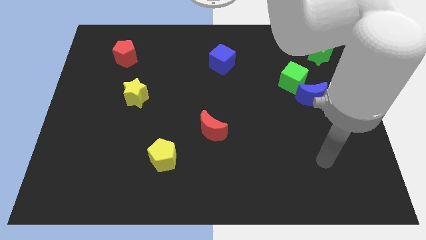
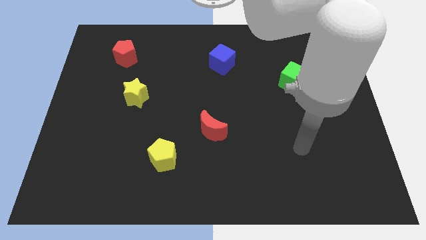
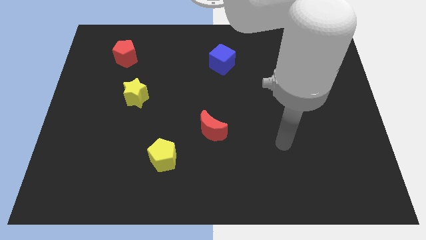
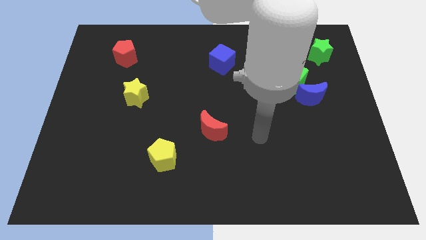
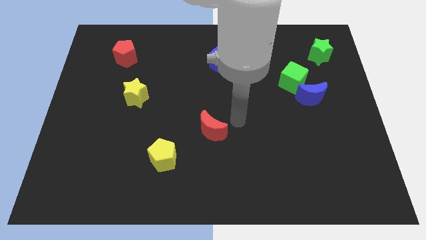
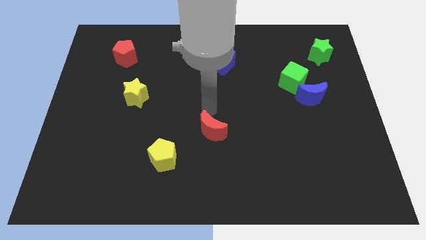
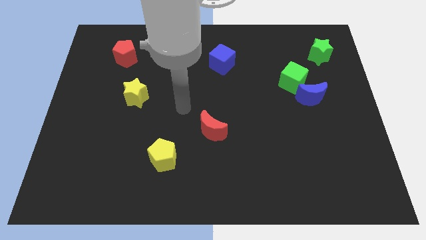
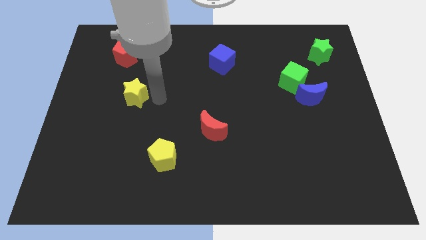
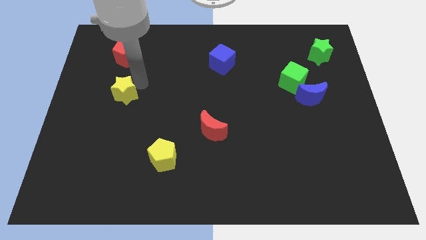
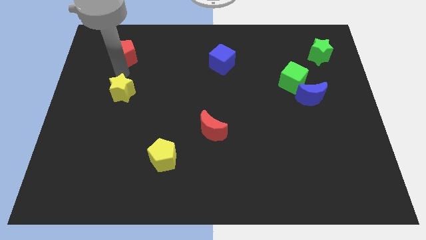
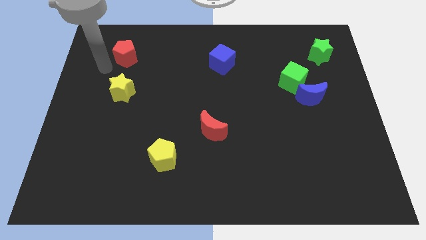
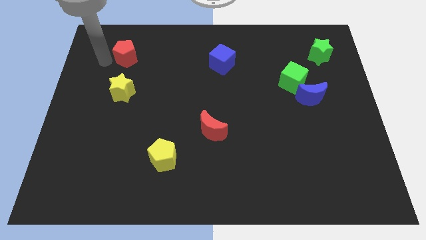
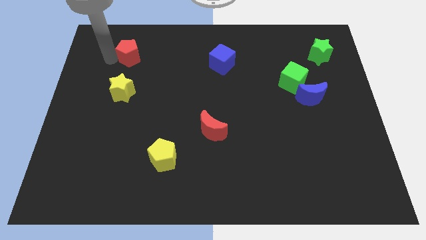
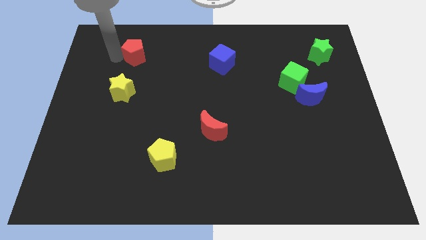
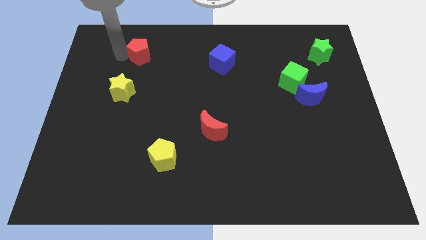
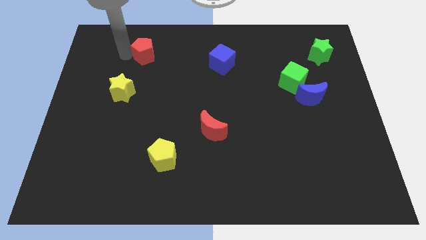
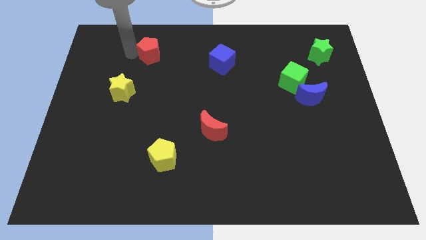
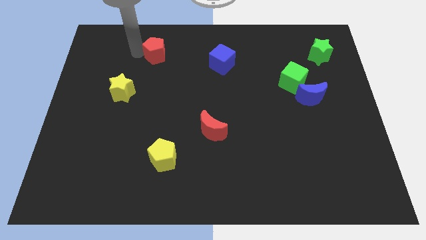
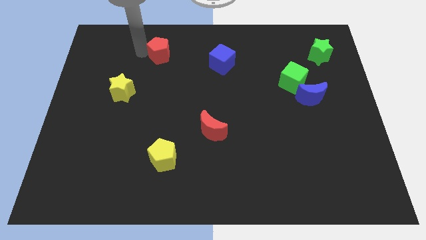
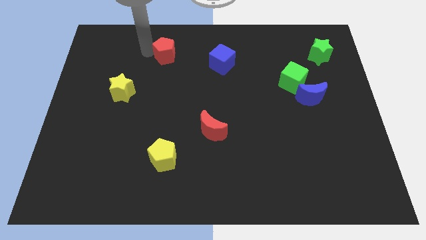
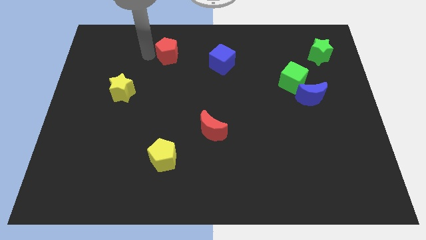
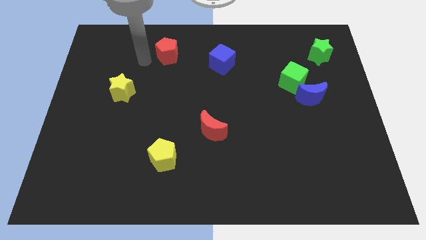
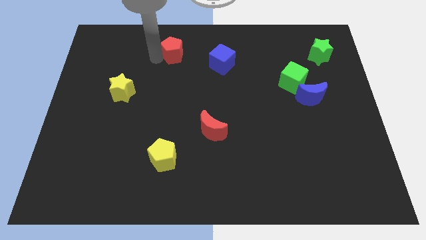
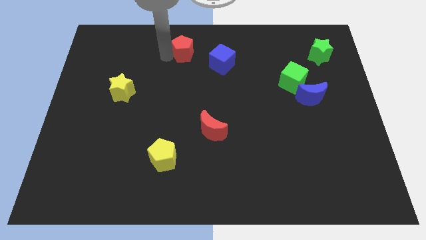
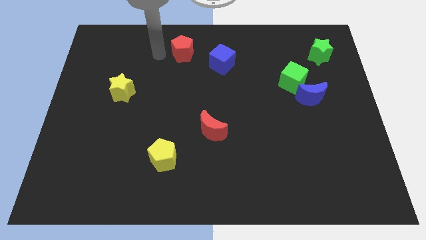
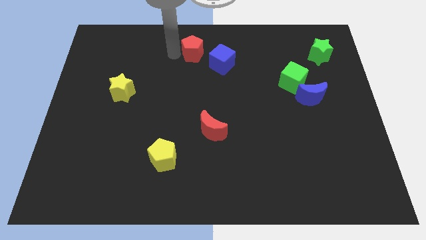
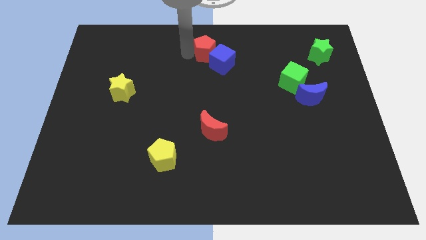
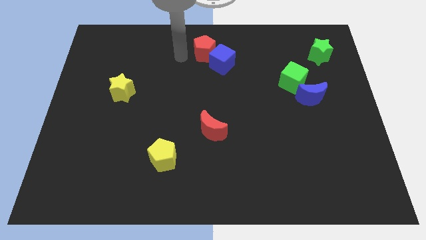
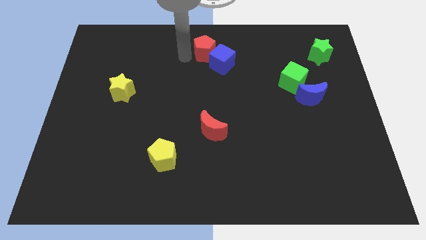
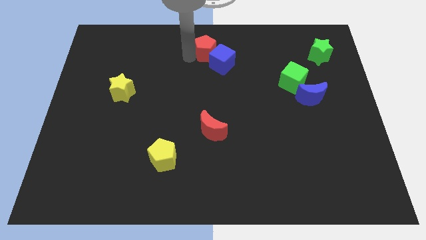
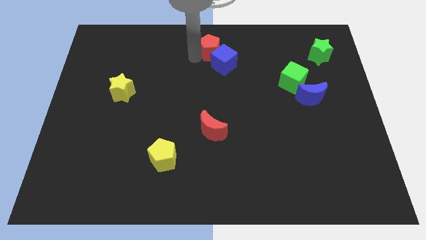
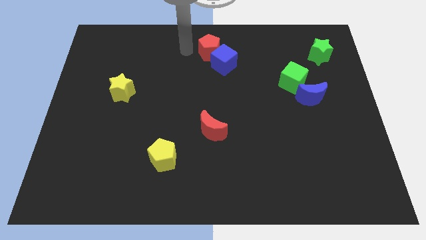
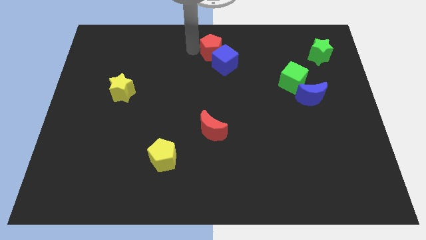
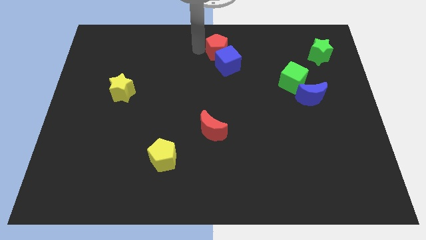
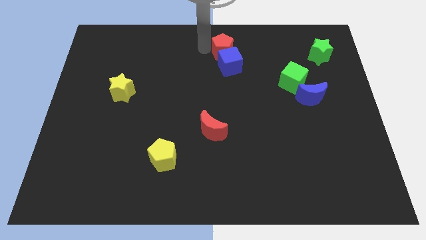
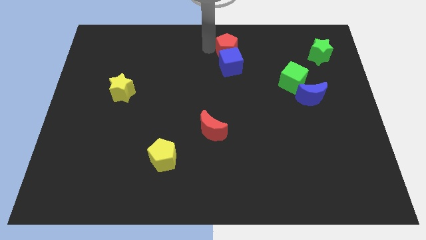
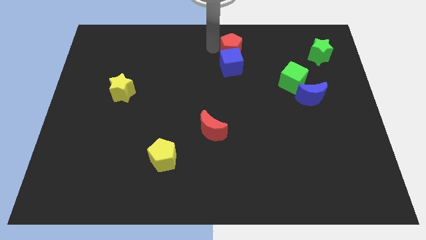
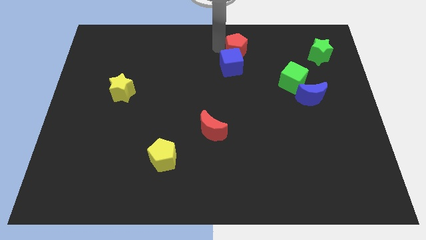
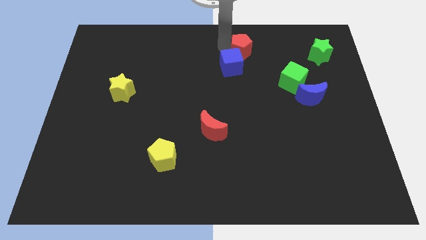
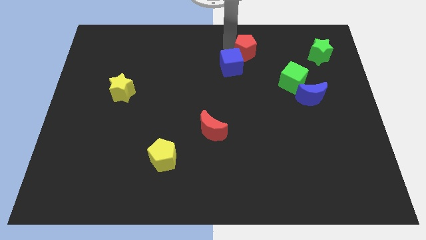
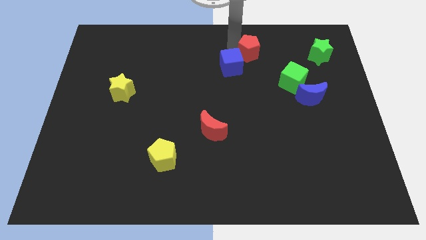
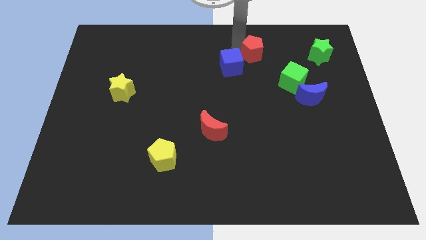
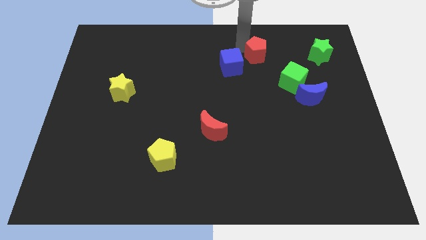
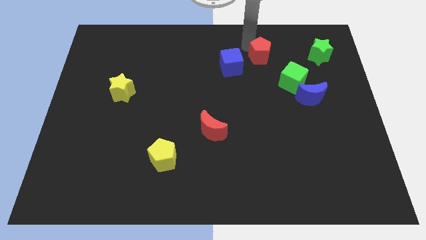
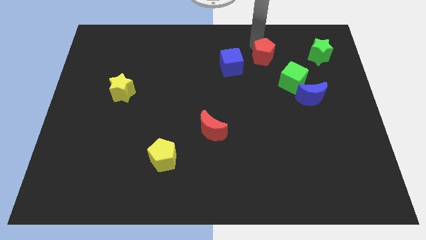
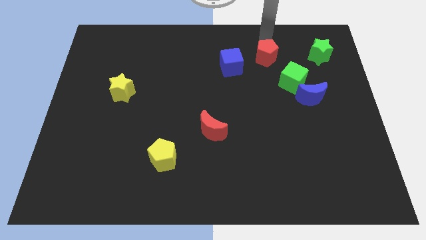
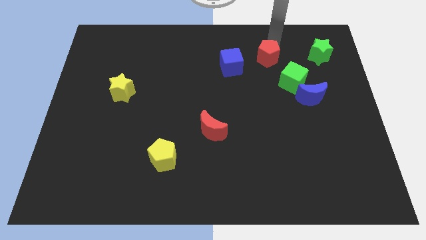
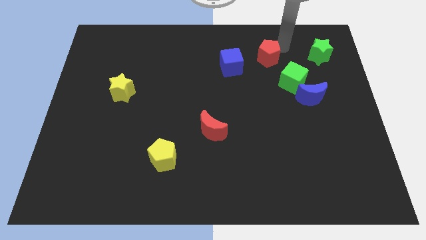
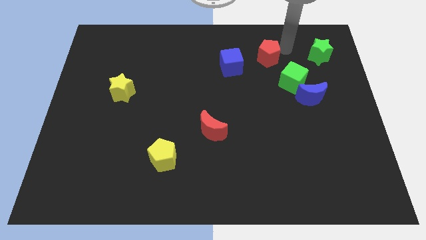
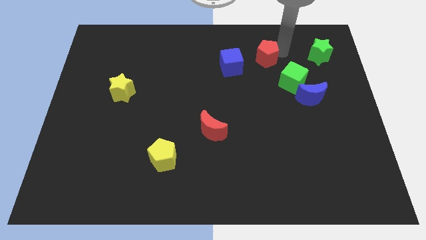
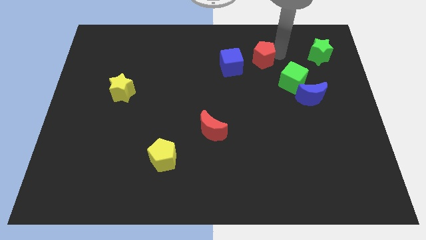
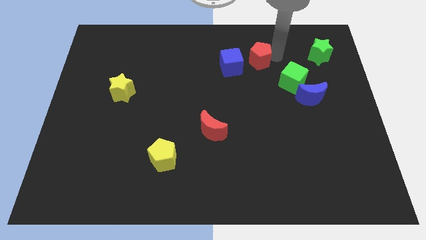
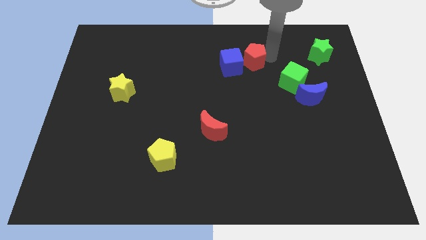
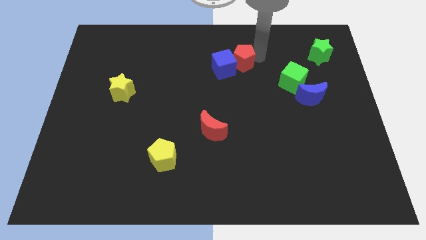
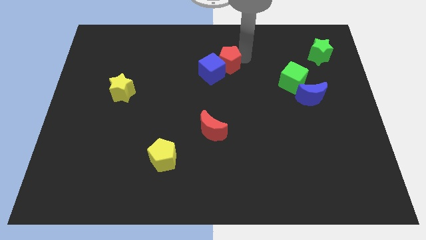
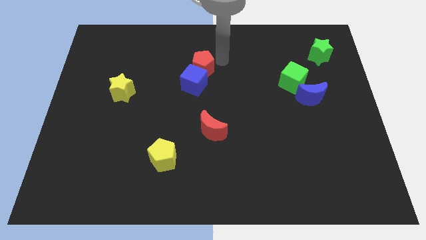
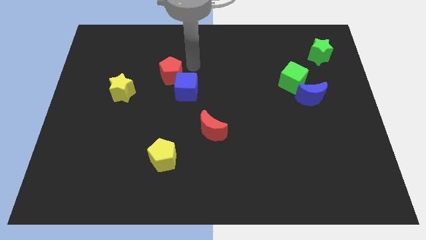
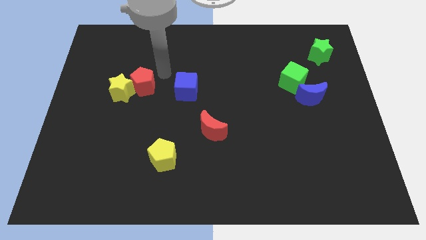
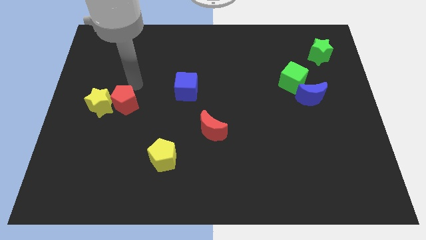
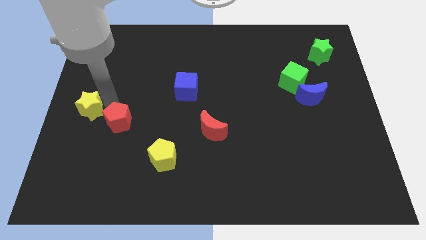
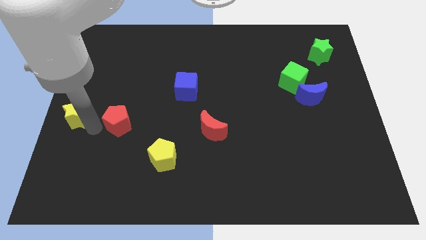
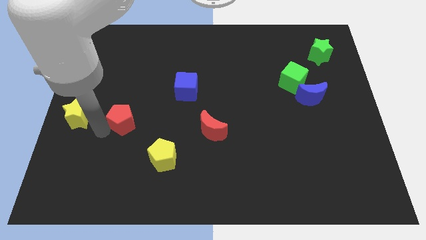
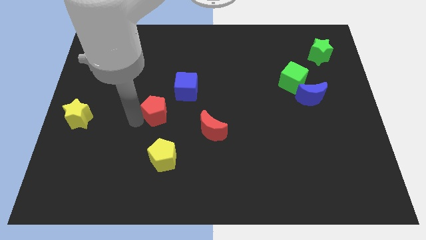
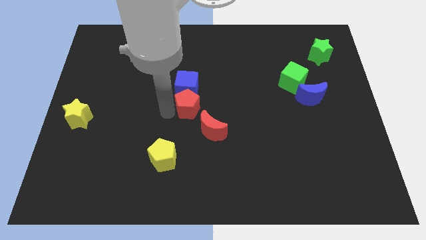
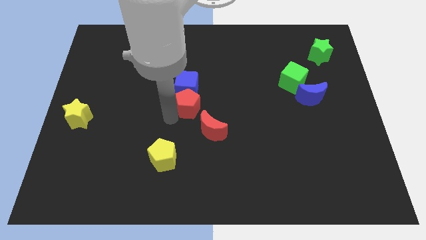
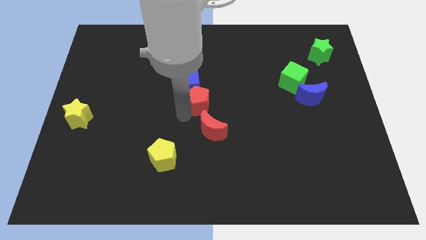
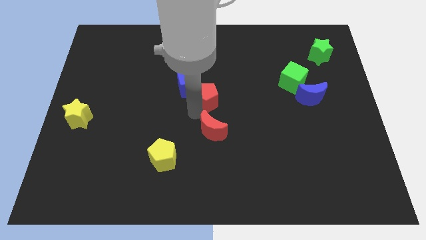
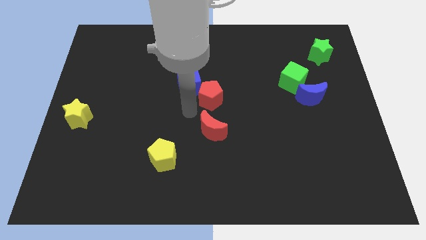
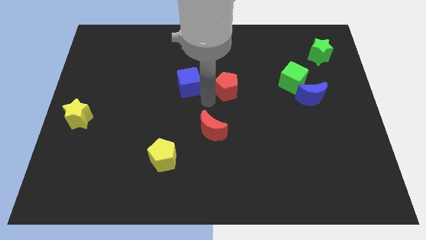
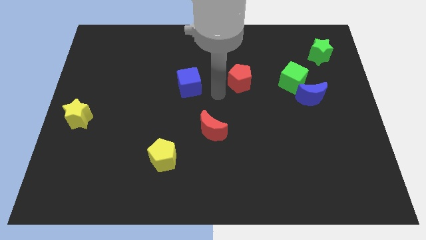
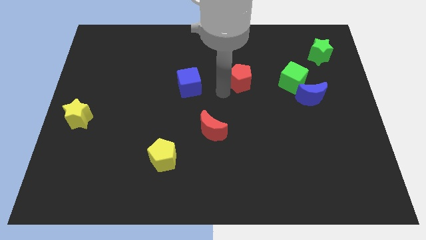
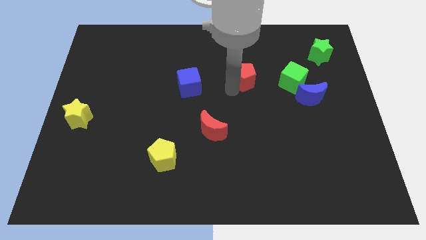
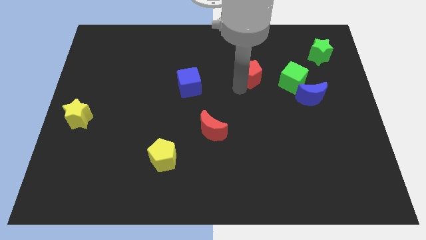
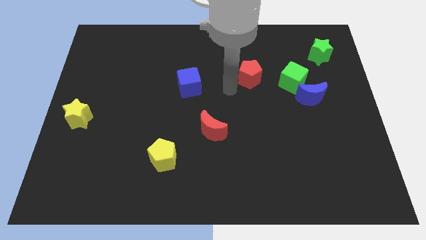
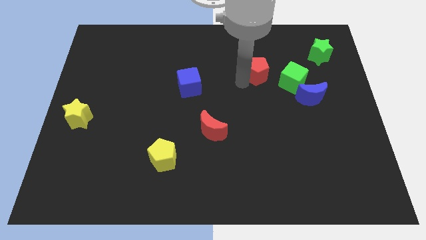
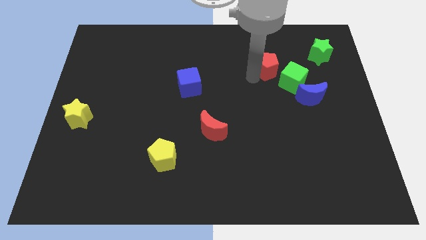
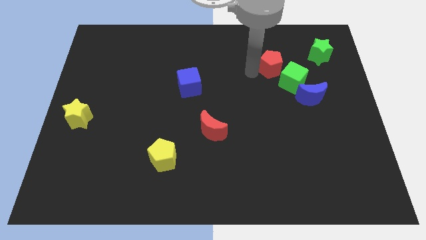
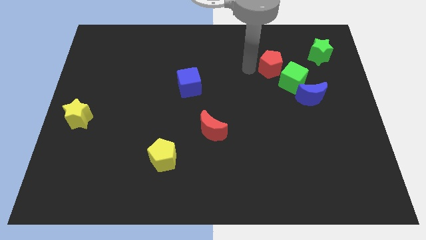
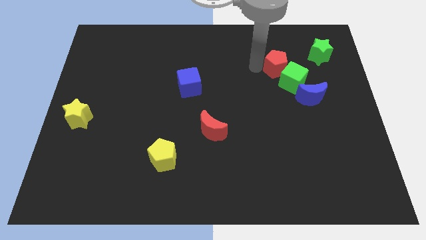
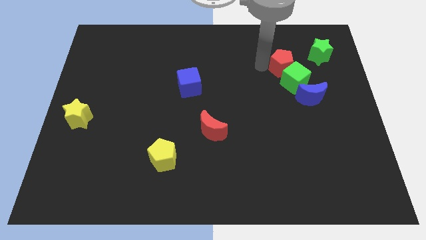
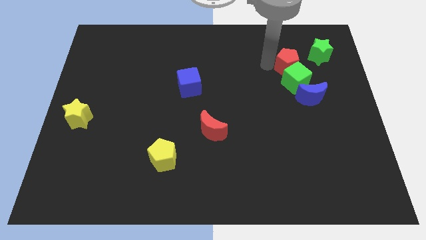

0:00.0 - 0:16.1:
put the red pentagon to the top of the blue moon
